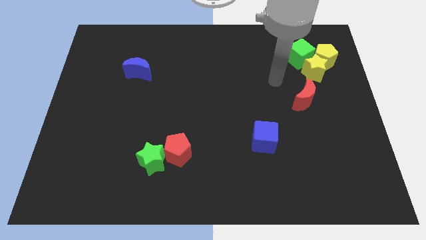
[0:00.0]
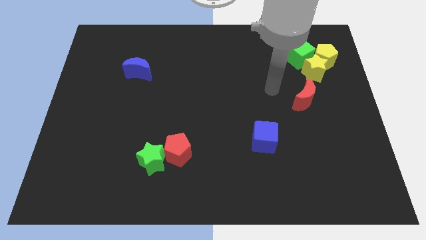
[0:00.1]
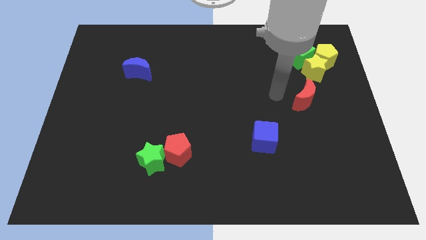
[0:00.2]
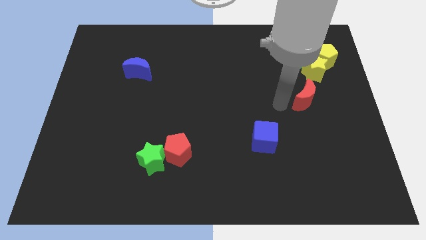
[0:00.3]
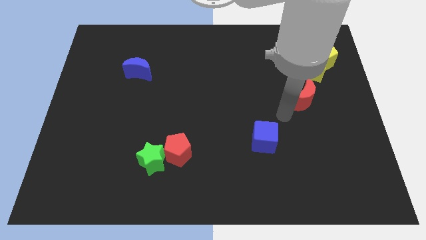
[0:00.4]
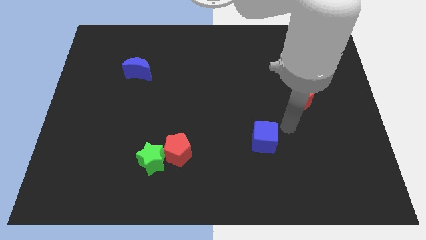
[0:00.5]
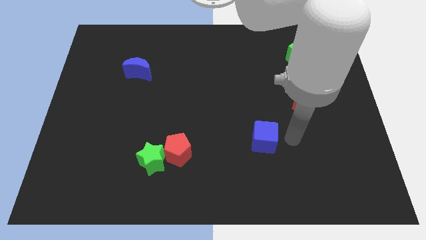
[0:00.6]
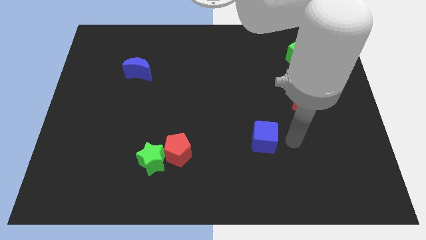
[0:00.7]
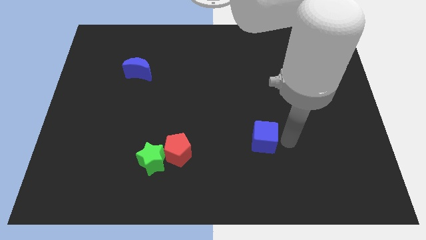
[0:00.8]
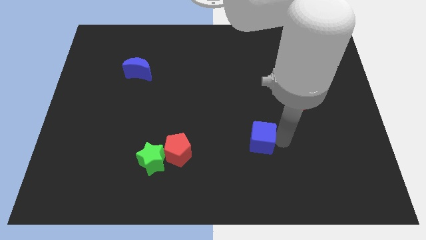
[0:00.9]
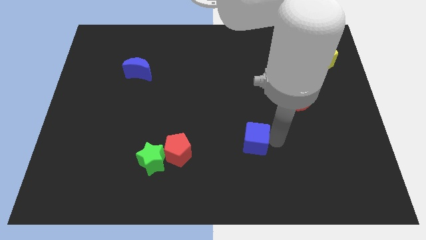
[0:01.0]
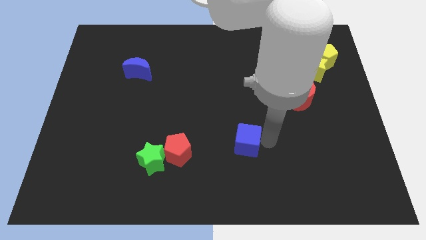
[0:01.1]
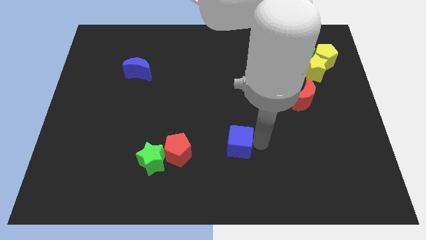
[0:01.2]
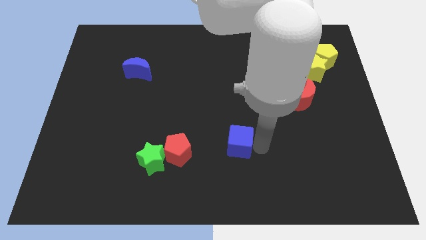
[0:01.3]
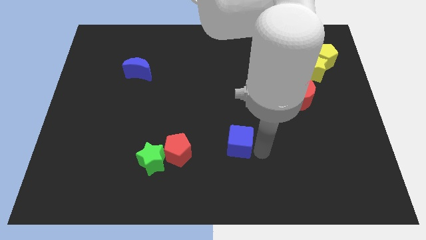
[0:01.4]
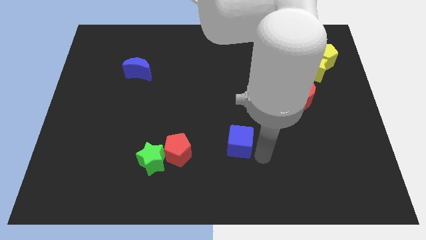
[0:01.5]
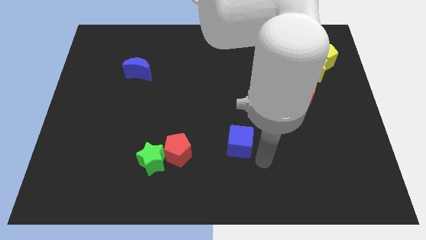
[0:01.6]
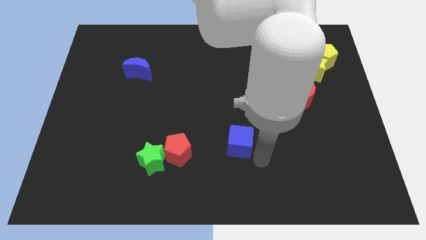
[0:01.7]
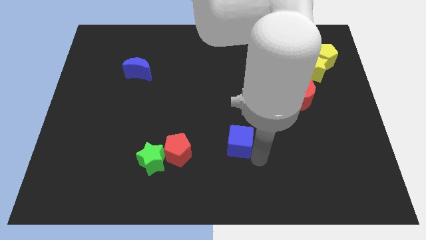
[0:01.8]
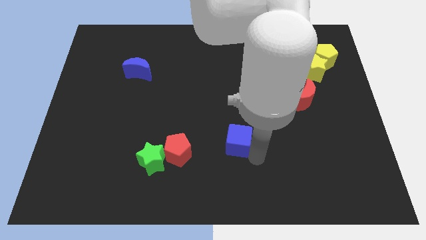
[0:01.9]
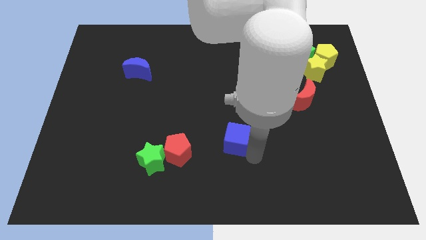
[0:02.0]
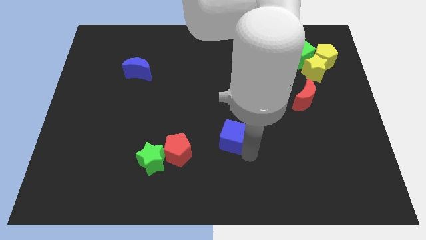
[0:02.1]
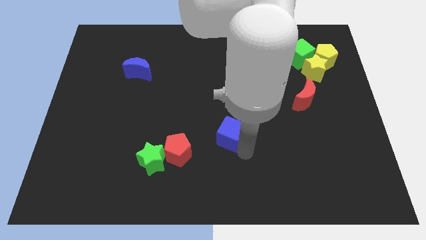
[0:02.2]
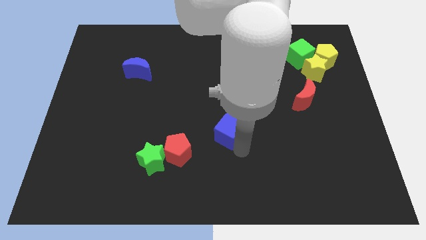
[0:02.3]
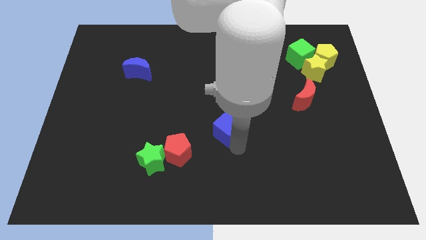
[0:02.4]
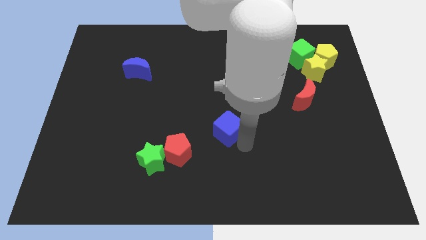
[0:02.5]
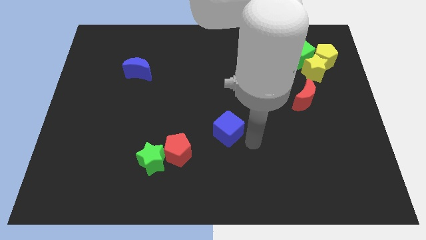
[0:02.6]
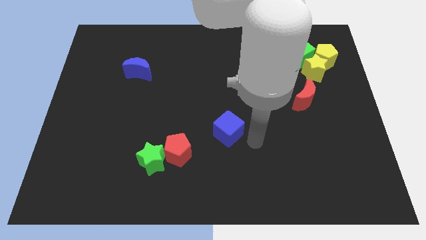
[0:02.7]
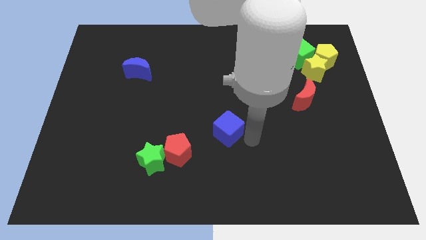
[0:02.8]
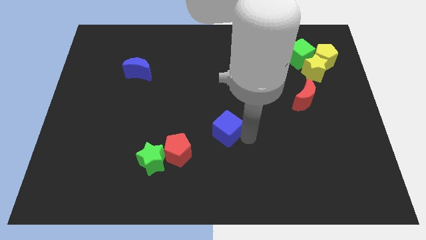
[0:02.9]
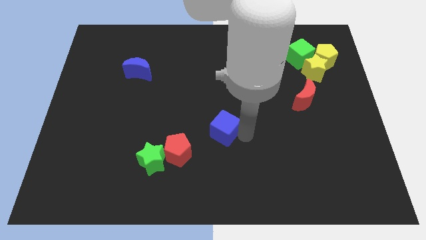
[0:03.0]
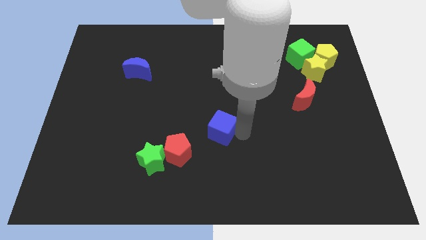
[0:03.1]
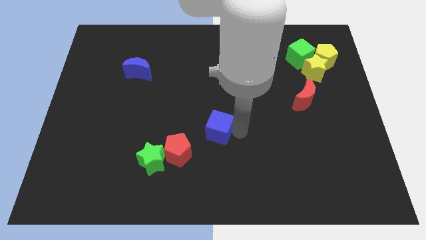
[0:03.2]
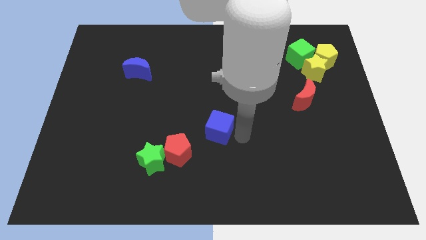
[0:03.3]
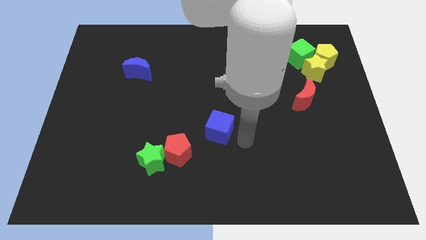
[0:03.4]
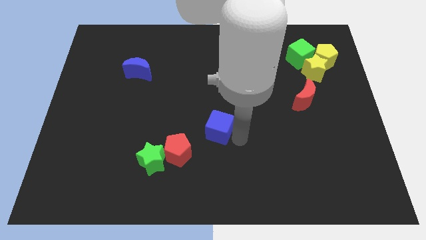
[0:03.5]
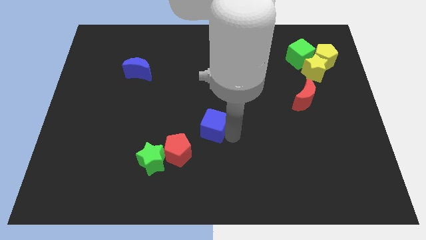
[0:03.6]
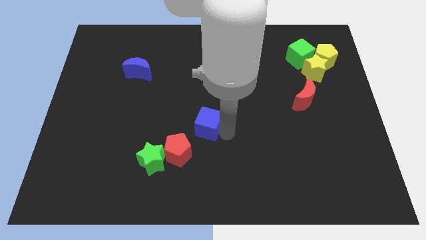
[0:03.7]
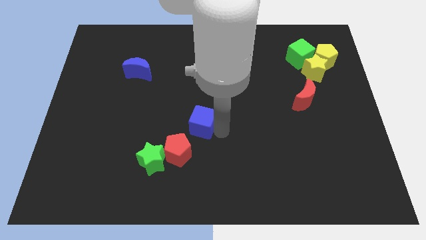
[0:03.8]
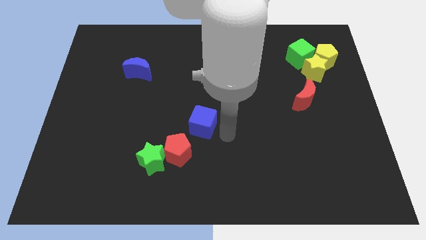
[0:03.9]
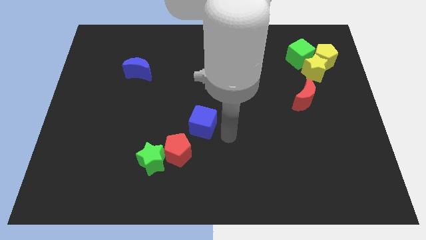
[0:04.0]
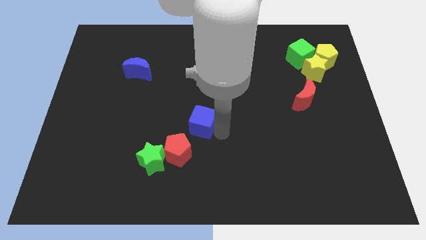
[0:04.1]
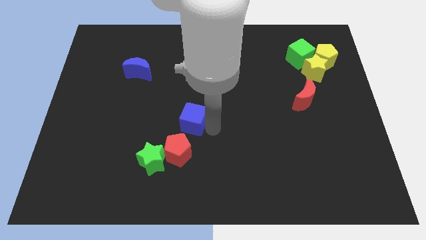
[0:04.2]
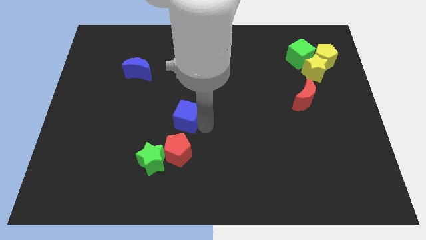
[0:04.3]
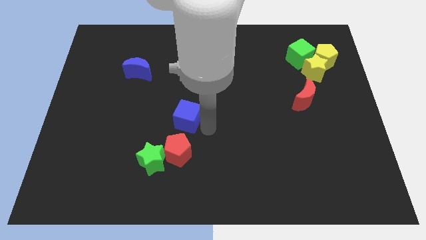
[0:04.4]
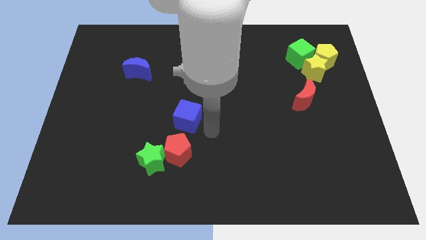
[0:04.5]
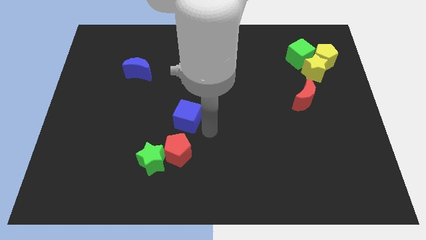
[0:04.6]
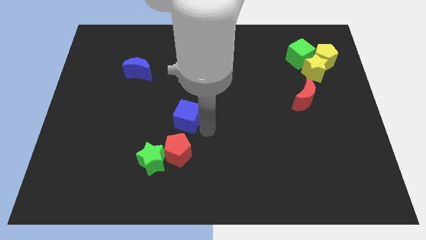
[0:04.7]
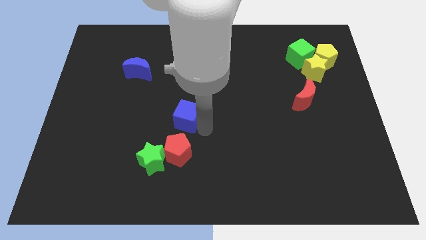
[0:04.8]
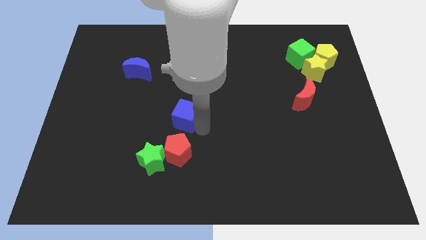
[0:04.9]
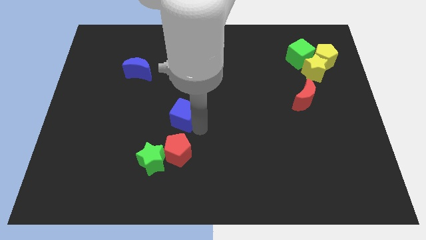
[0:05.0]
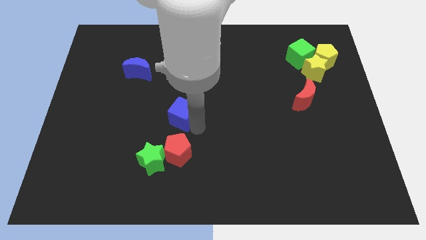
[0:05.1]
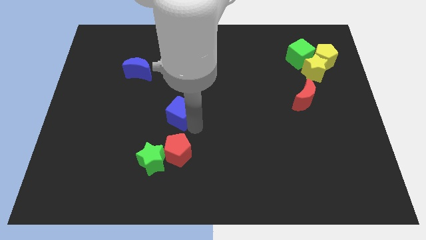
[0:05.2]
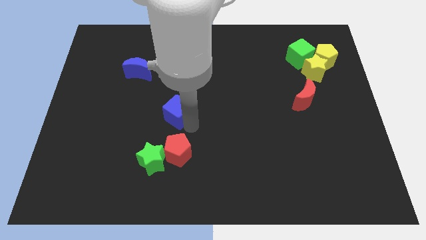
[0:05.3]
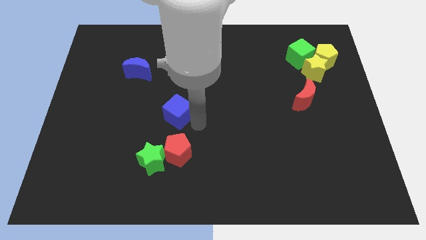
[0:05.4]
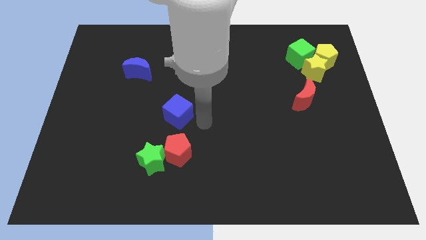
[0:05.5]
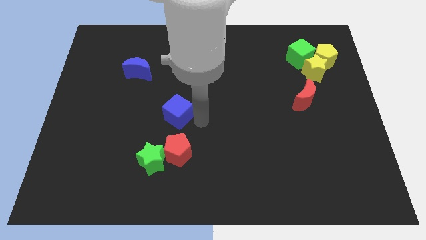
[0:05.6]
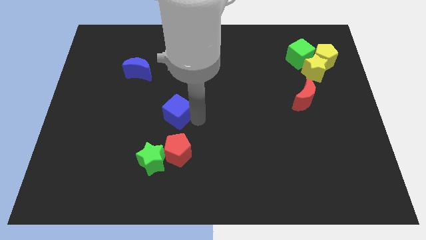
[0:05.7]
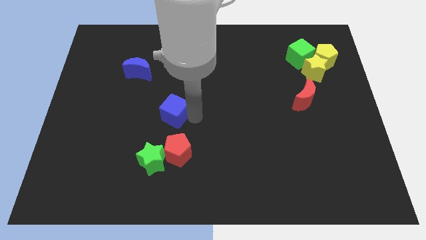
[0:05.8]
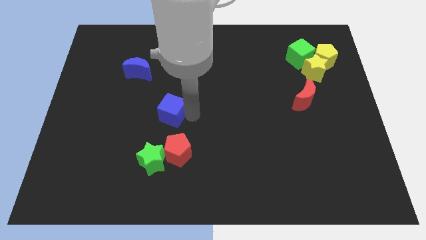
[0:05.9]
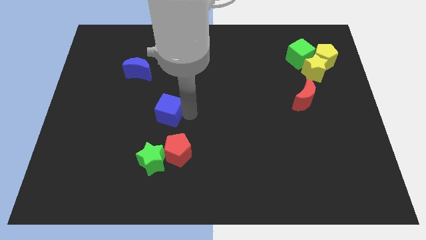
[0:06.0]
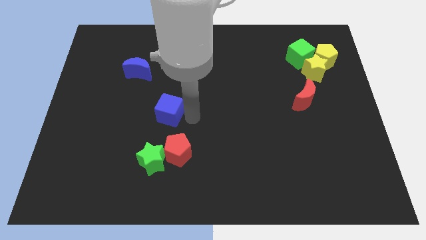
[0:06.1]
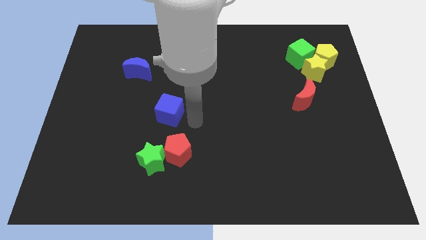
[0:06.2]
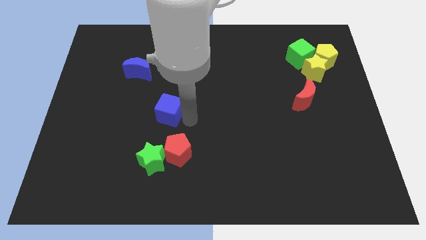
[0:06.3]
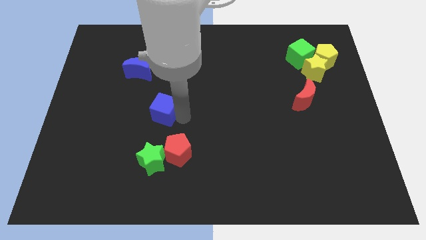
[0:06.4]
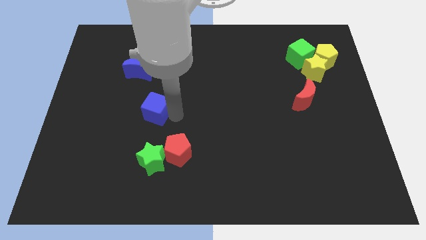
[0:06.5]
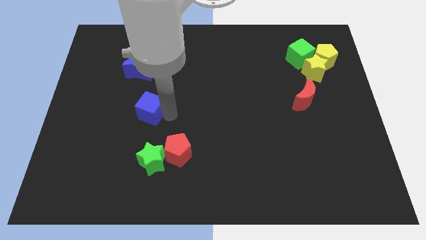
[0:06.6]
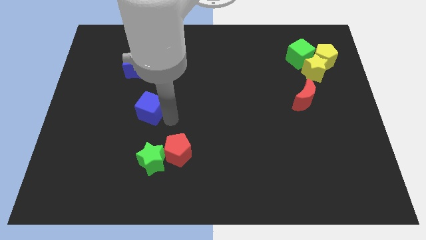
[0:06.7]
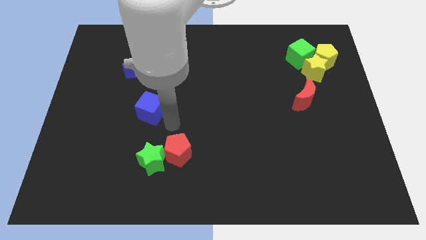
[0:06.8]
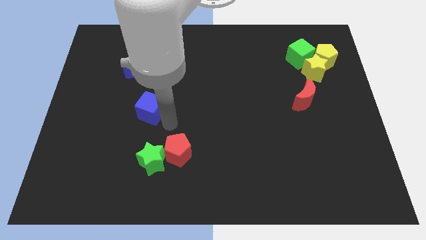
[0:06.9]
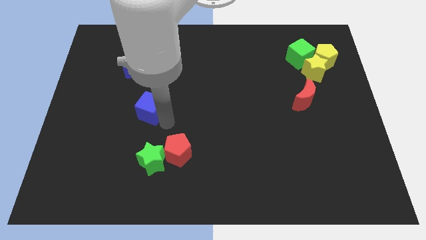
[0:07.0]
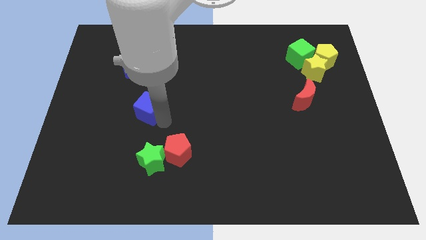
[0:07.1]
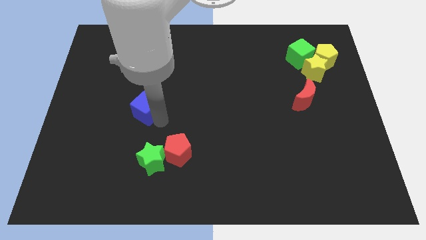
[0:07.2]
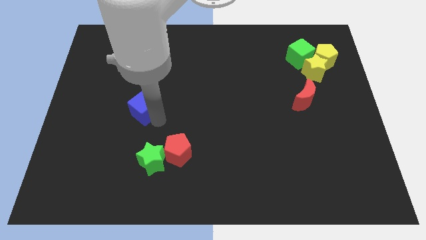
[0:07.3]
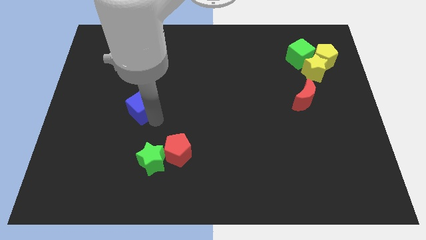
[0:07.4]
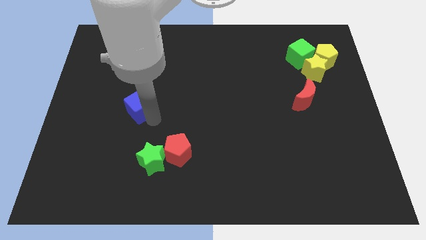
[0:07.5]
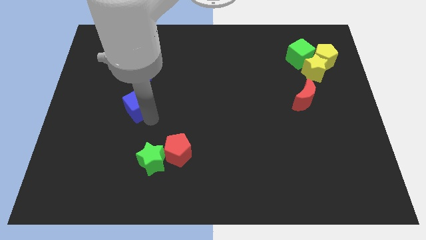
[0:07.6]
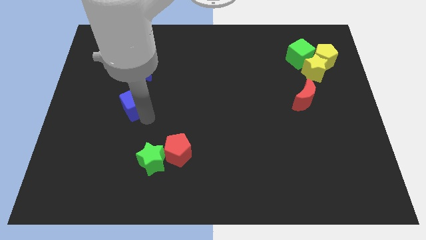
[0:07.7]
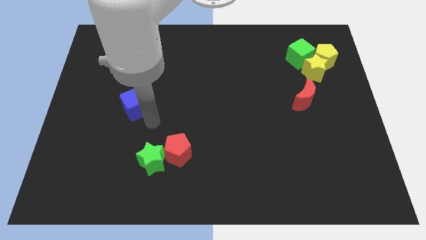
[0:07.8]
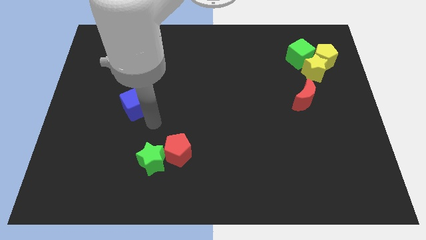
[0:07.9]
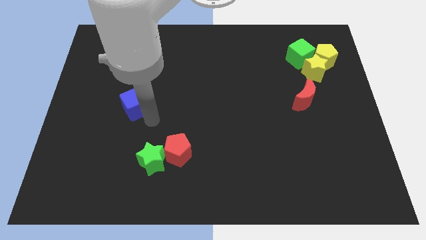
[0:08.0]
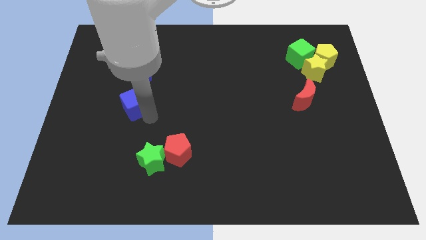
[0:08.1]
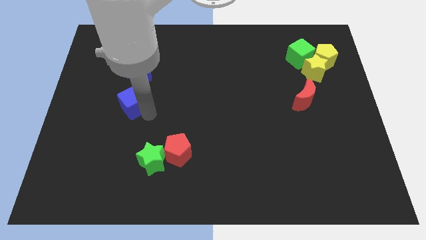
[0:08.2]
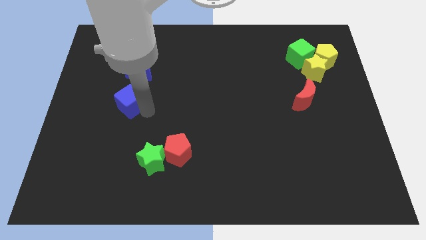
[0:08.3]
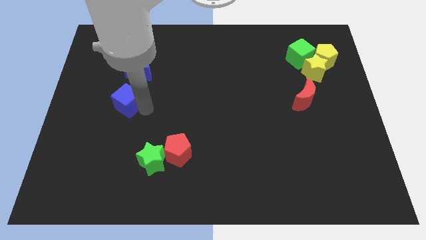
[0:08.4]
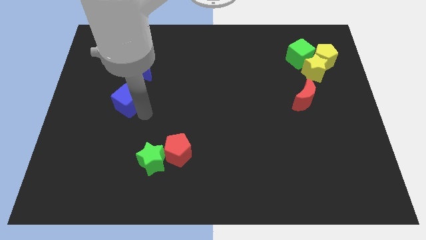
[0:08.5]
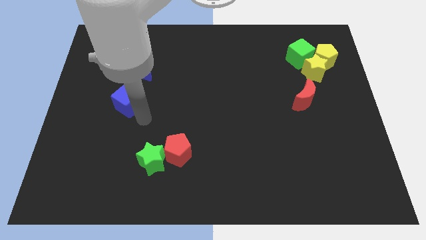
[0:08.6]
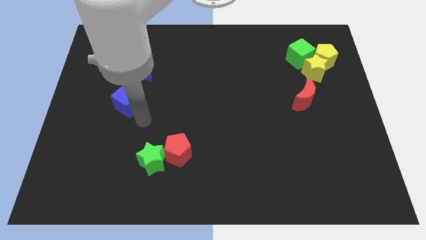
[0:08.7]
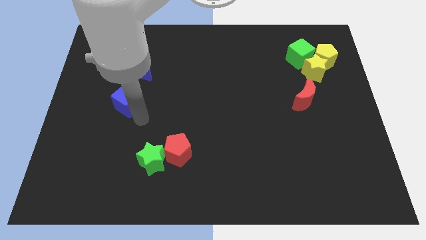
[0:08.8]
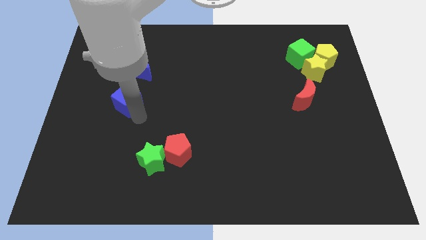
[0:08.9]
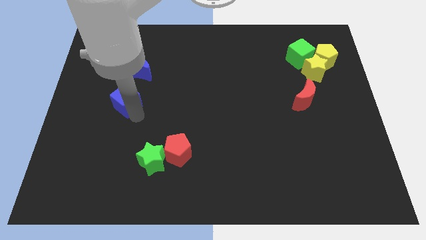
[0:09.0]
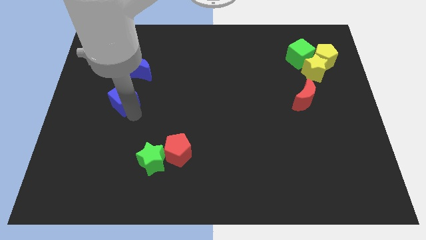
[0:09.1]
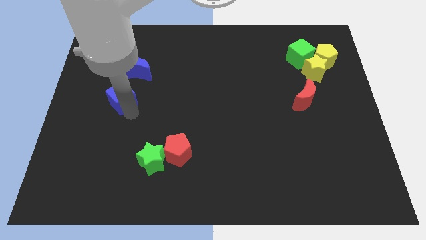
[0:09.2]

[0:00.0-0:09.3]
move the blue cube to the bottom left side of the blue moon
